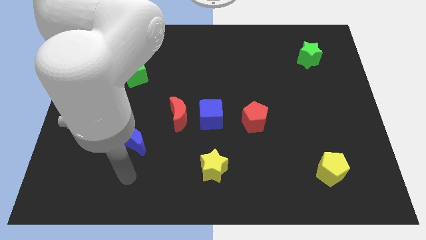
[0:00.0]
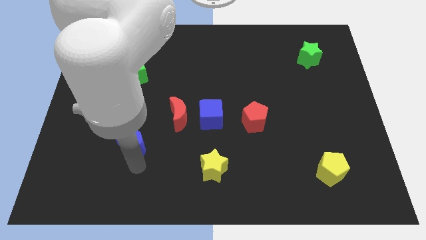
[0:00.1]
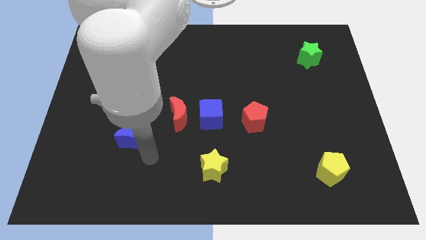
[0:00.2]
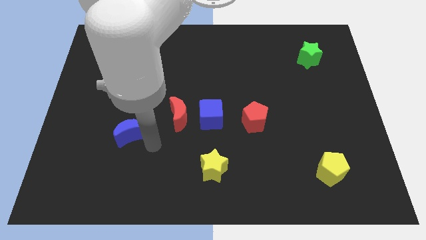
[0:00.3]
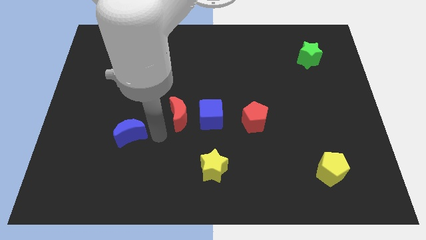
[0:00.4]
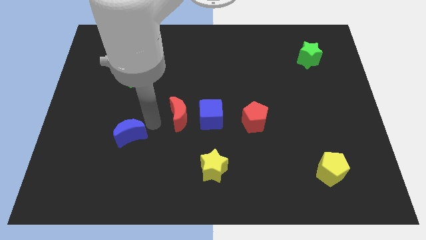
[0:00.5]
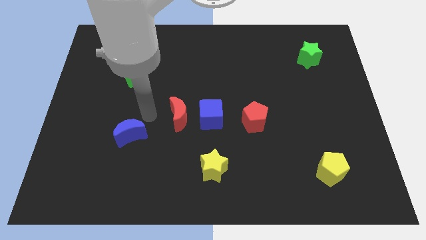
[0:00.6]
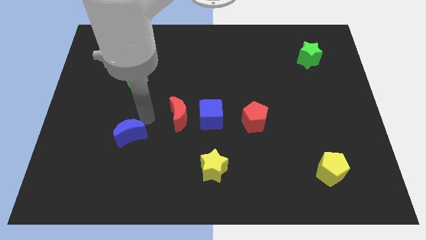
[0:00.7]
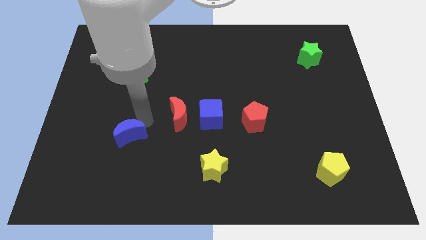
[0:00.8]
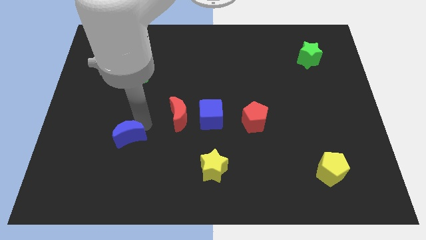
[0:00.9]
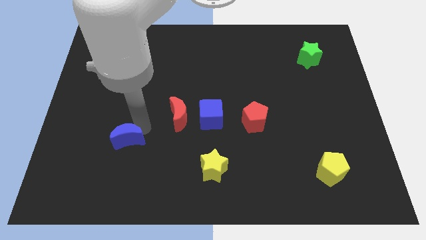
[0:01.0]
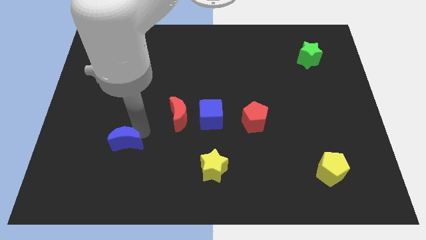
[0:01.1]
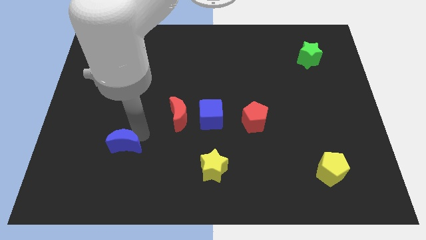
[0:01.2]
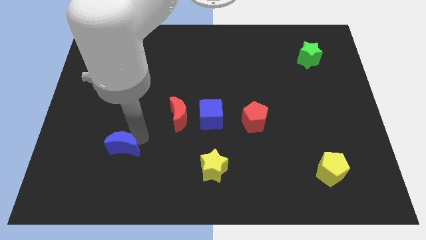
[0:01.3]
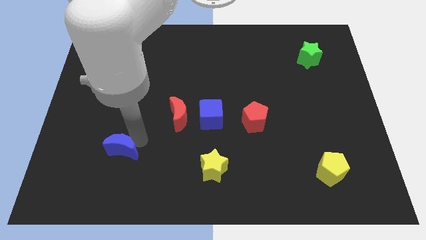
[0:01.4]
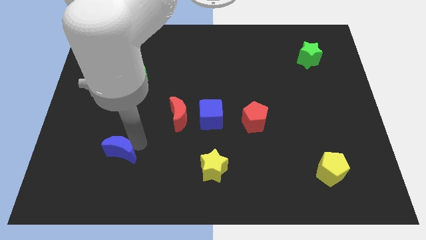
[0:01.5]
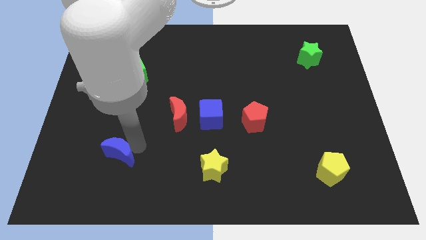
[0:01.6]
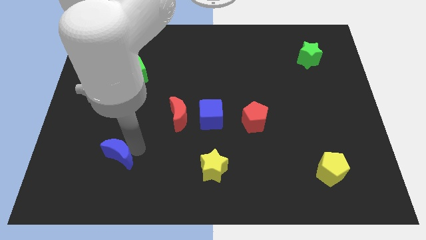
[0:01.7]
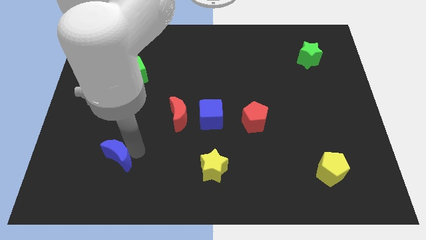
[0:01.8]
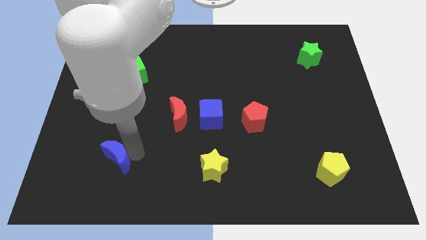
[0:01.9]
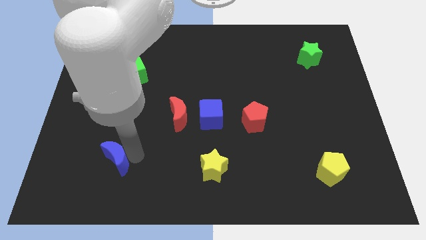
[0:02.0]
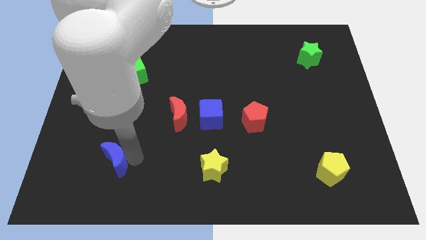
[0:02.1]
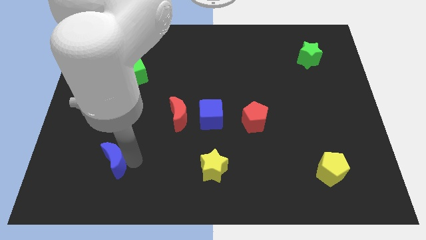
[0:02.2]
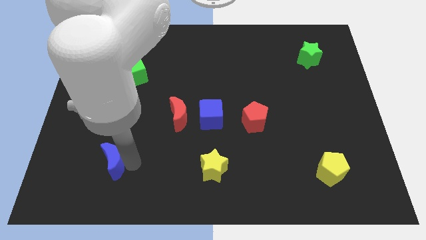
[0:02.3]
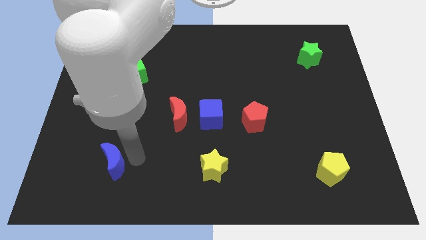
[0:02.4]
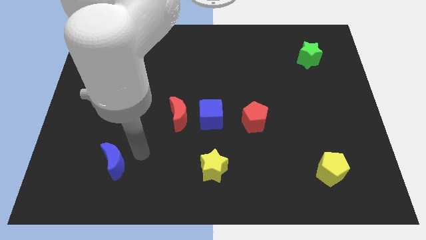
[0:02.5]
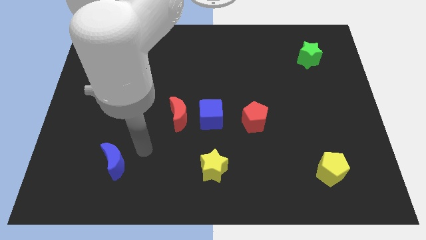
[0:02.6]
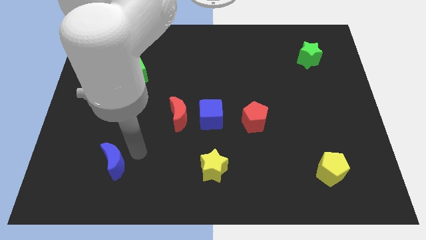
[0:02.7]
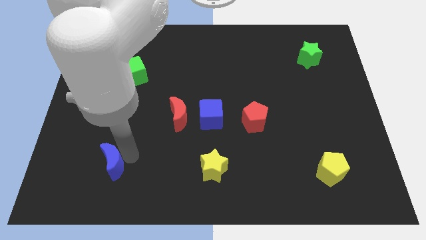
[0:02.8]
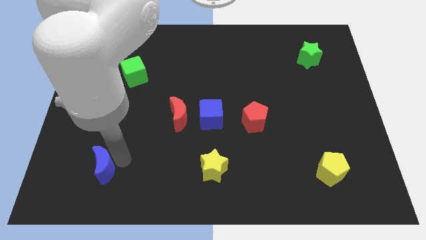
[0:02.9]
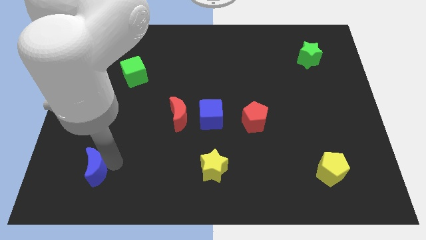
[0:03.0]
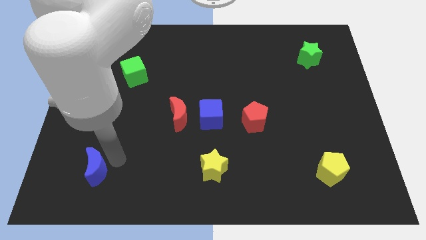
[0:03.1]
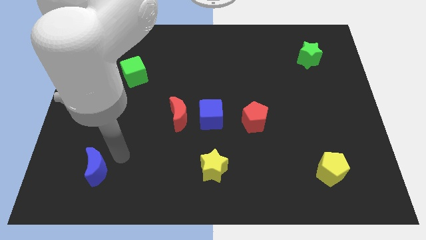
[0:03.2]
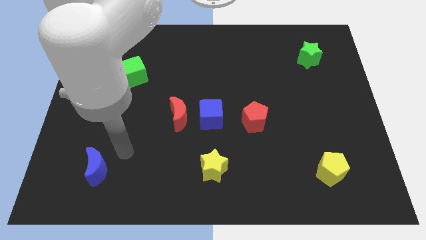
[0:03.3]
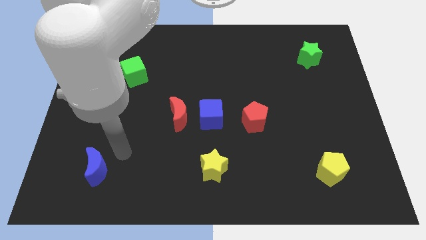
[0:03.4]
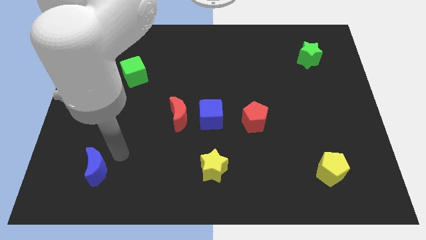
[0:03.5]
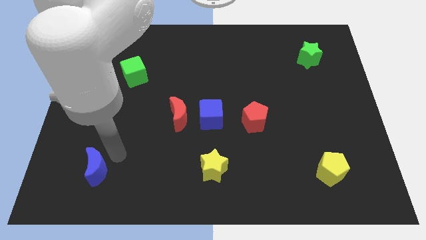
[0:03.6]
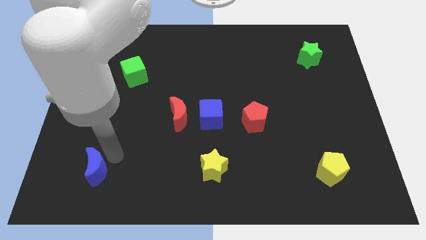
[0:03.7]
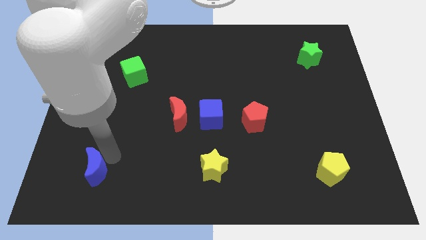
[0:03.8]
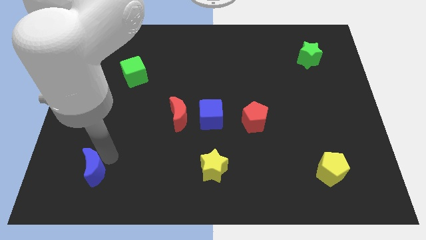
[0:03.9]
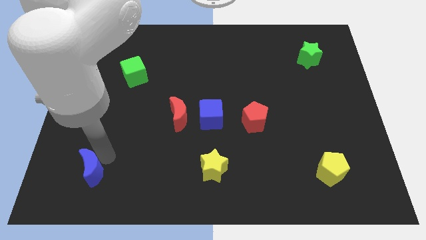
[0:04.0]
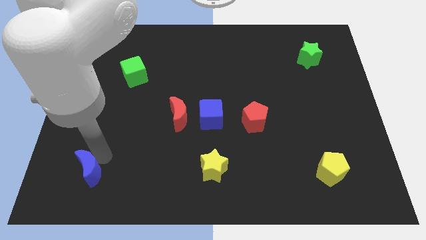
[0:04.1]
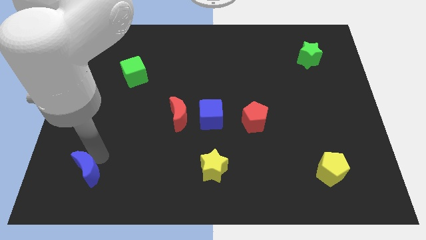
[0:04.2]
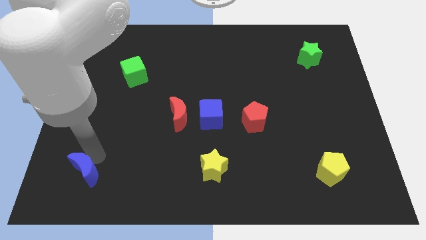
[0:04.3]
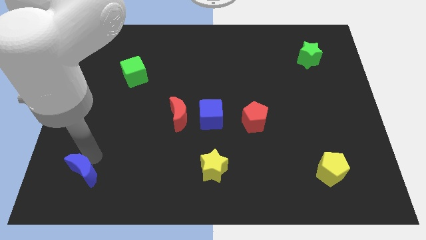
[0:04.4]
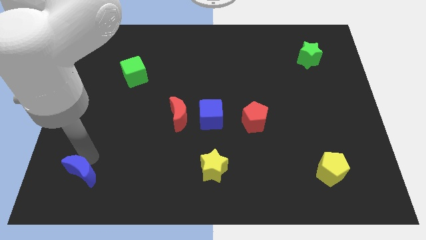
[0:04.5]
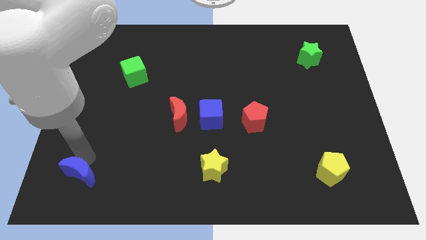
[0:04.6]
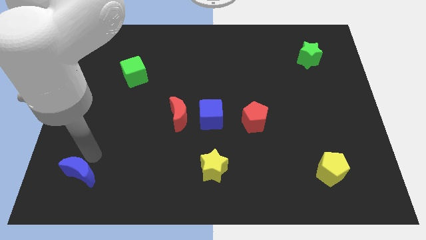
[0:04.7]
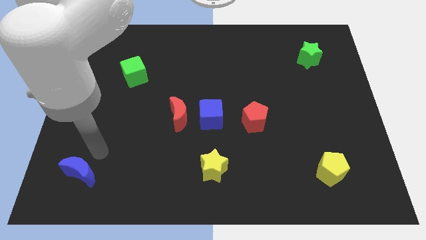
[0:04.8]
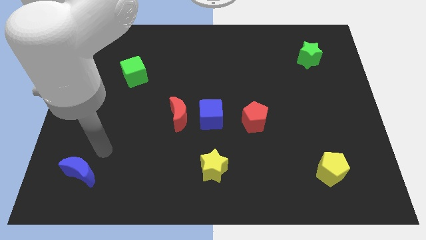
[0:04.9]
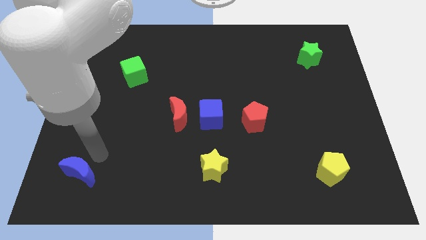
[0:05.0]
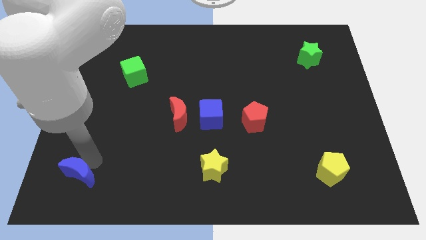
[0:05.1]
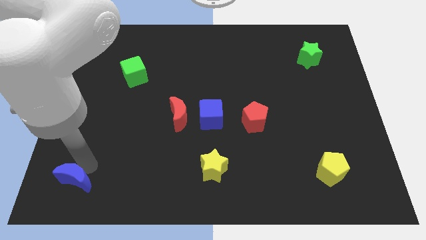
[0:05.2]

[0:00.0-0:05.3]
put the blue moon to the bottom left of the board
